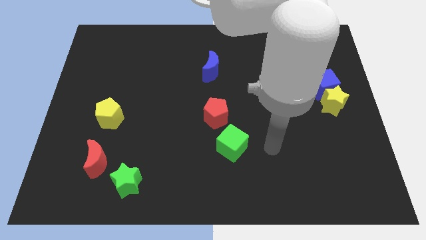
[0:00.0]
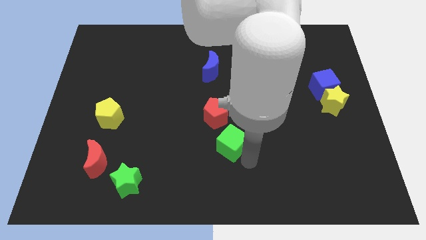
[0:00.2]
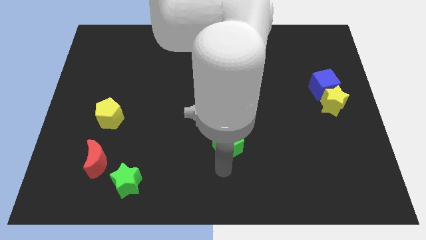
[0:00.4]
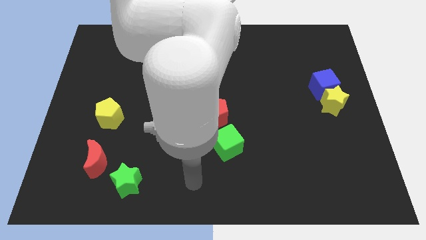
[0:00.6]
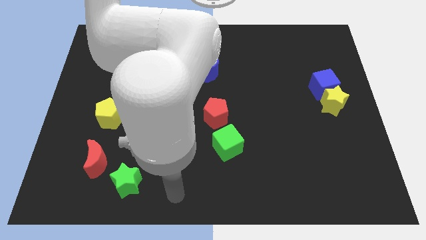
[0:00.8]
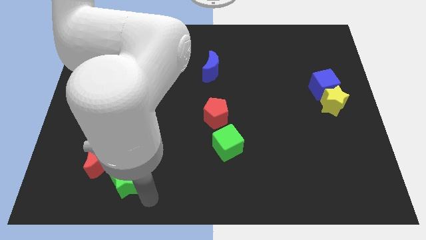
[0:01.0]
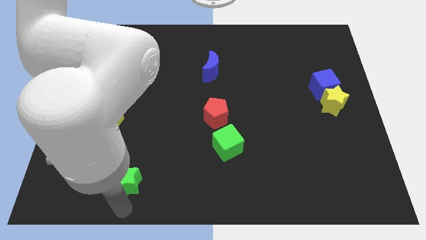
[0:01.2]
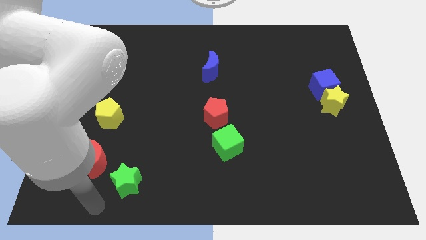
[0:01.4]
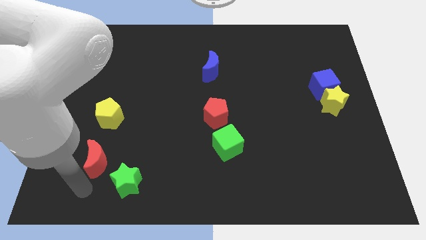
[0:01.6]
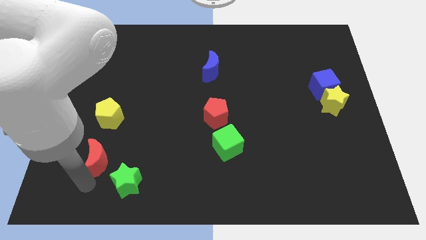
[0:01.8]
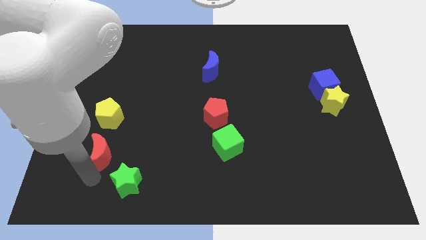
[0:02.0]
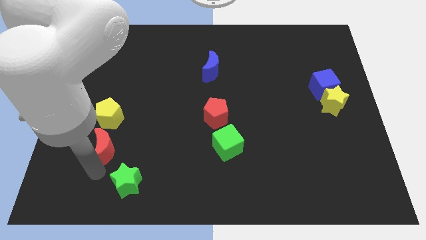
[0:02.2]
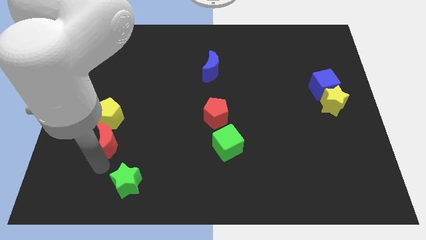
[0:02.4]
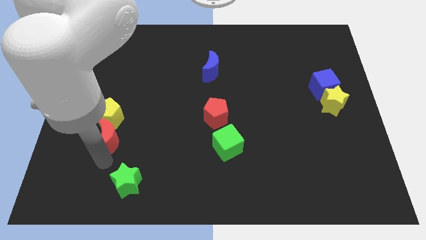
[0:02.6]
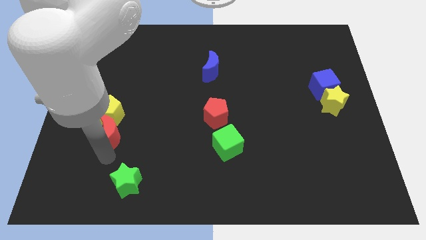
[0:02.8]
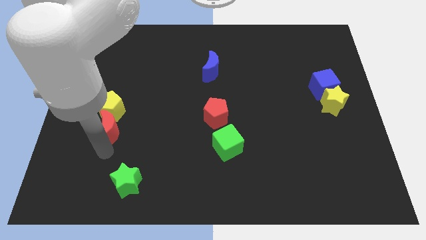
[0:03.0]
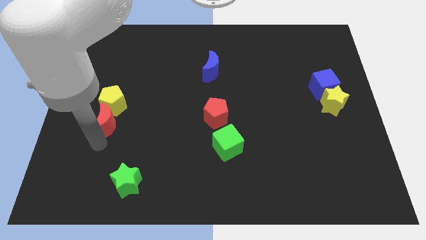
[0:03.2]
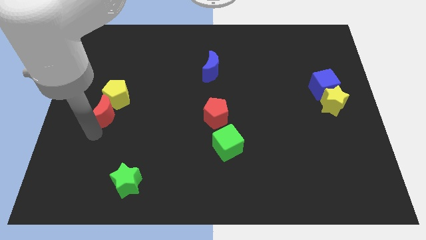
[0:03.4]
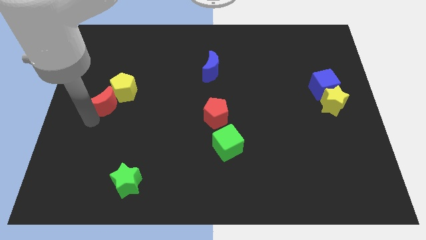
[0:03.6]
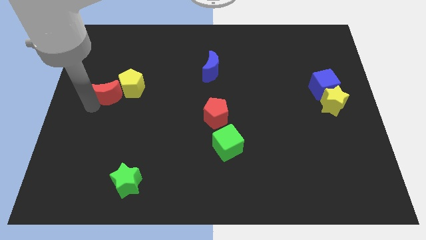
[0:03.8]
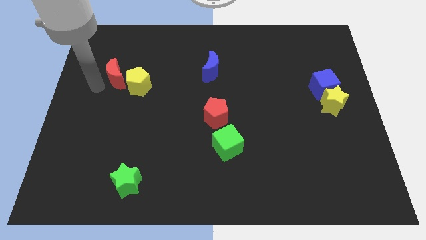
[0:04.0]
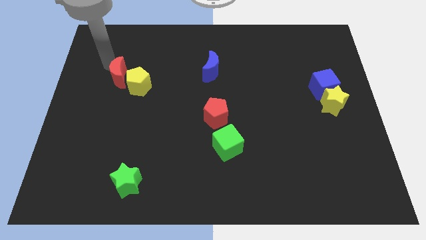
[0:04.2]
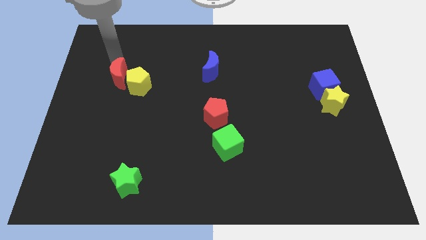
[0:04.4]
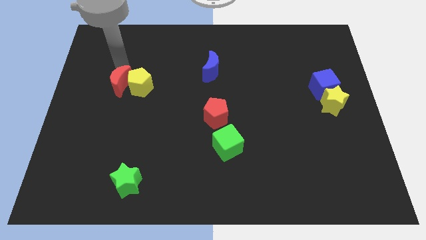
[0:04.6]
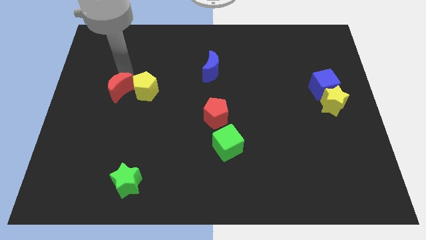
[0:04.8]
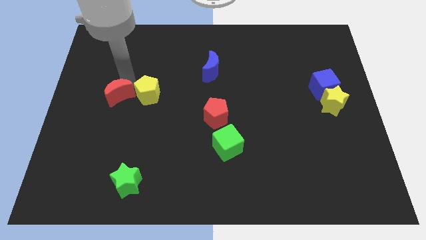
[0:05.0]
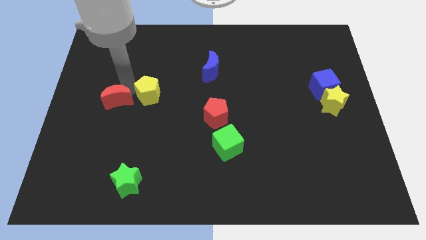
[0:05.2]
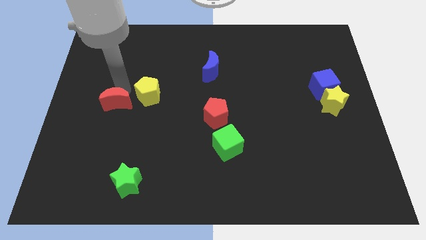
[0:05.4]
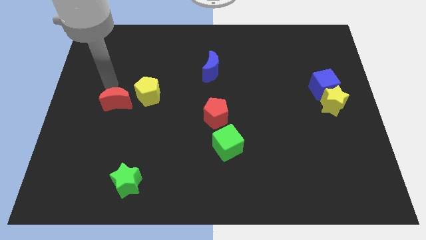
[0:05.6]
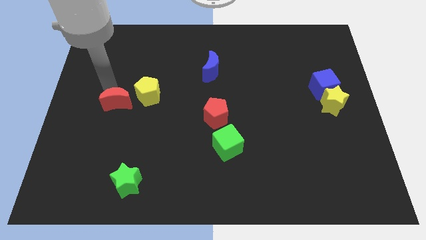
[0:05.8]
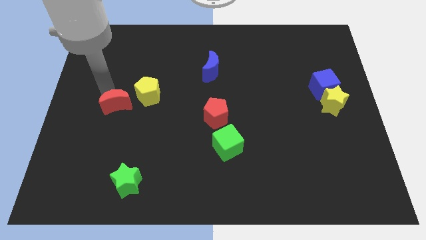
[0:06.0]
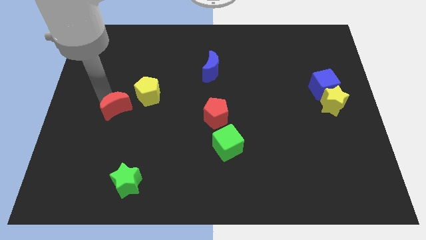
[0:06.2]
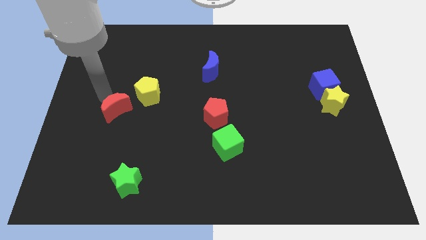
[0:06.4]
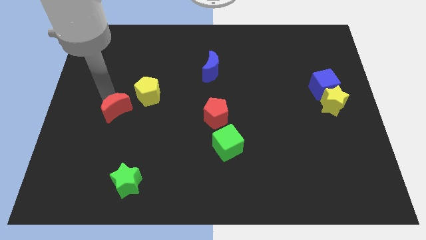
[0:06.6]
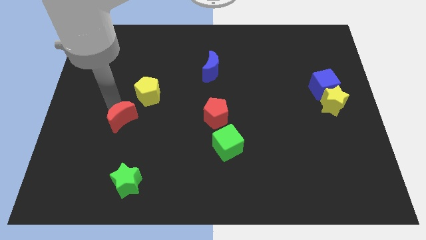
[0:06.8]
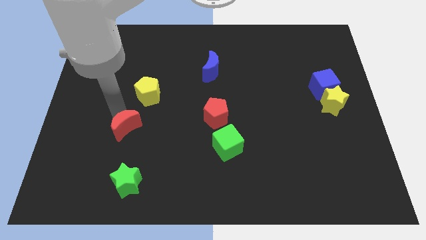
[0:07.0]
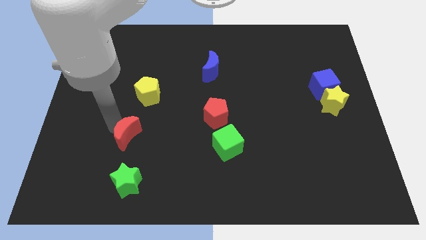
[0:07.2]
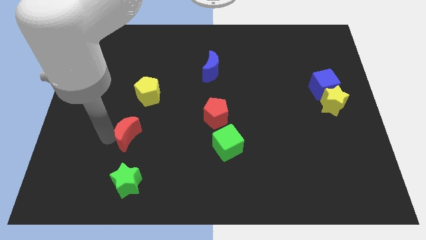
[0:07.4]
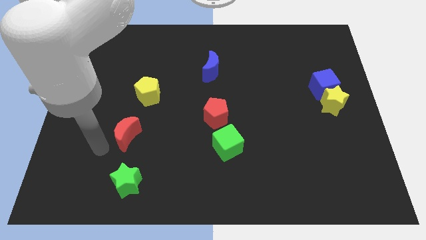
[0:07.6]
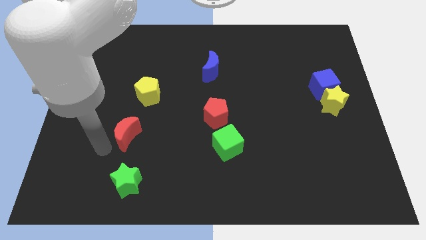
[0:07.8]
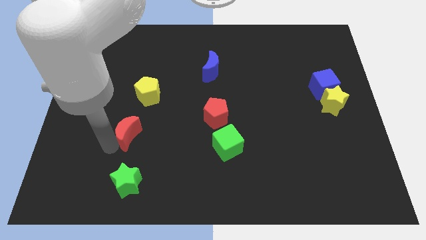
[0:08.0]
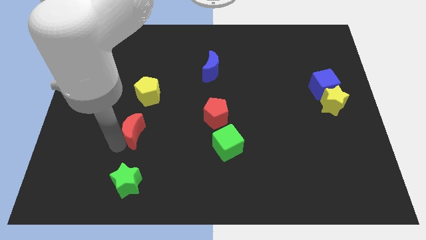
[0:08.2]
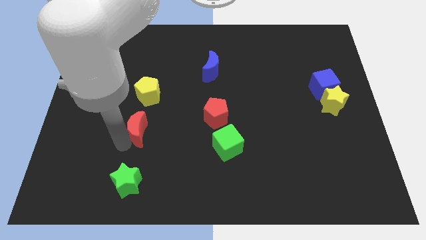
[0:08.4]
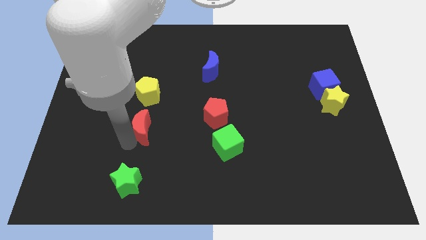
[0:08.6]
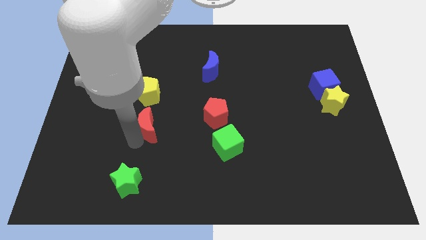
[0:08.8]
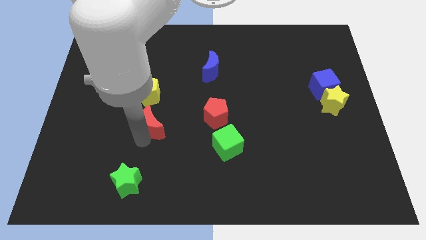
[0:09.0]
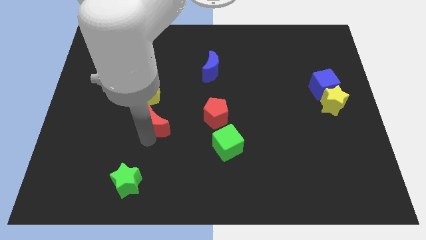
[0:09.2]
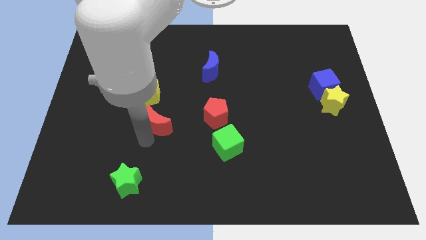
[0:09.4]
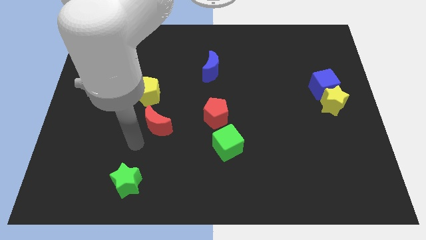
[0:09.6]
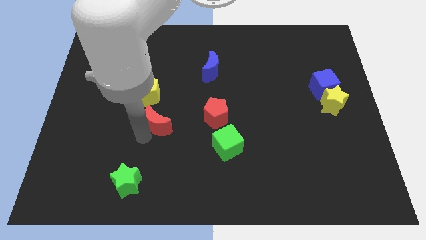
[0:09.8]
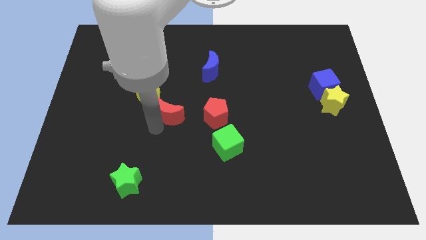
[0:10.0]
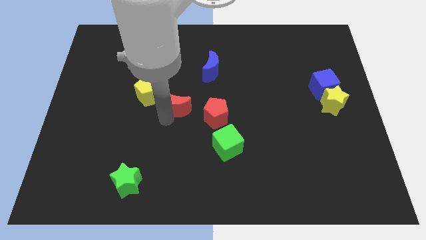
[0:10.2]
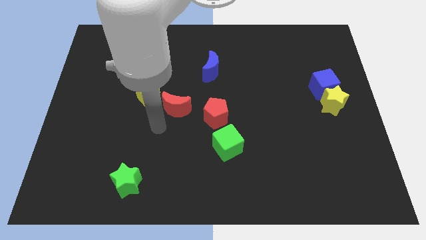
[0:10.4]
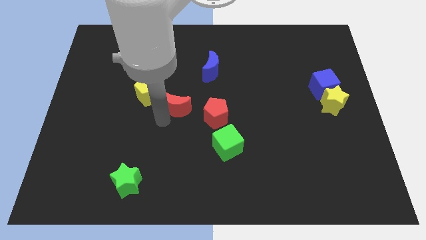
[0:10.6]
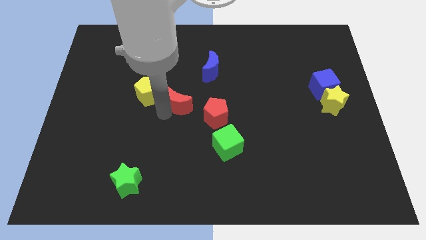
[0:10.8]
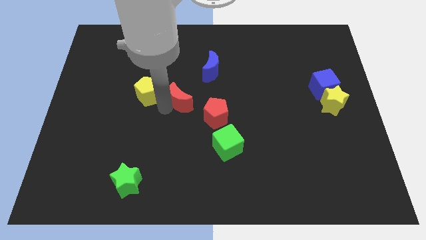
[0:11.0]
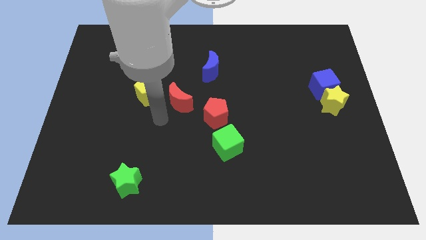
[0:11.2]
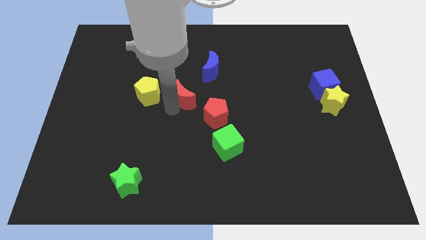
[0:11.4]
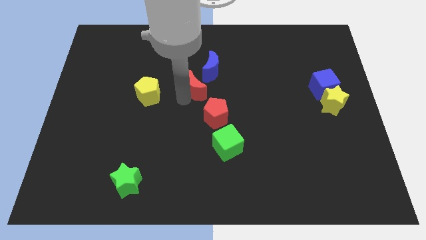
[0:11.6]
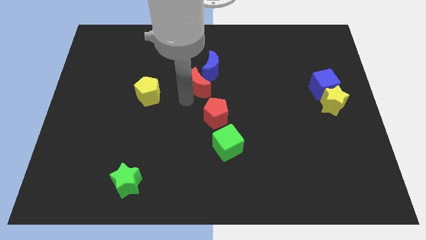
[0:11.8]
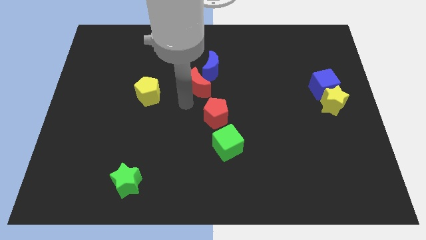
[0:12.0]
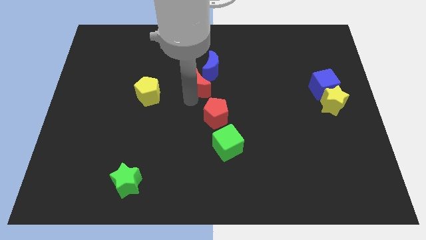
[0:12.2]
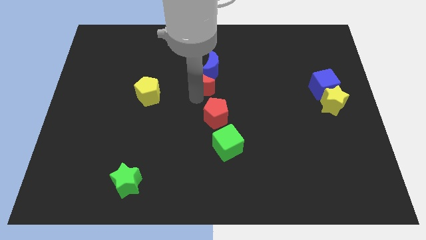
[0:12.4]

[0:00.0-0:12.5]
move the red moon close to the blue moon
